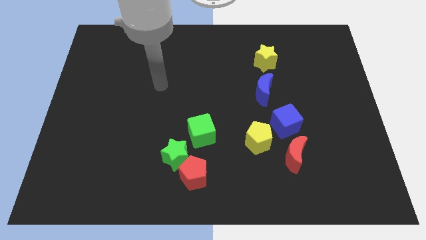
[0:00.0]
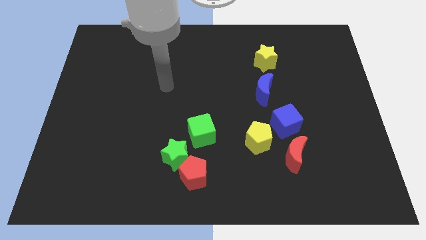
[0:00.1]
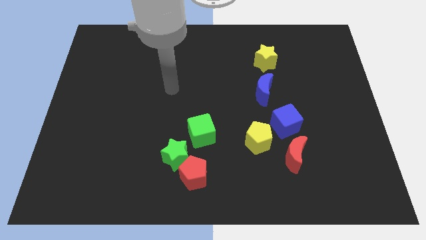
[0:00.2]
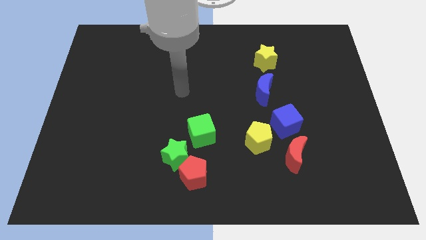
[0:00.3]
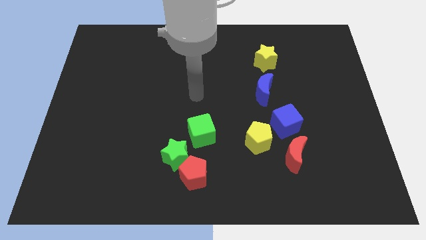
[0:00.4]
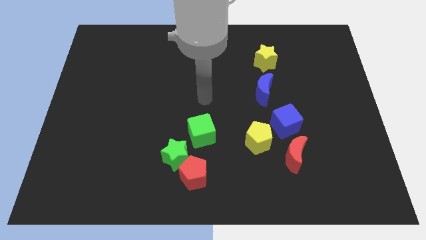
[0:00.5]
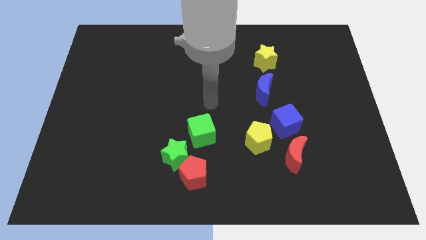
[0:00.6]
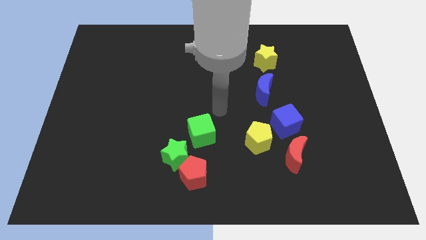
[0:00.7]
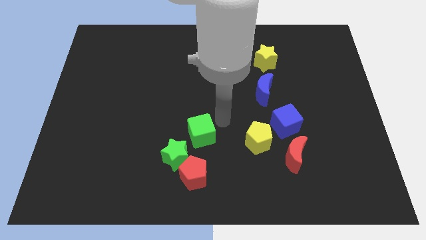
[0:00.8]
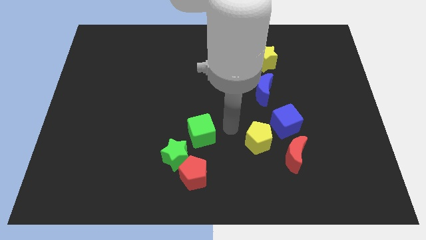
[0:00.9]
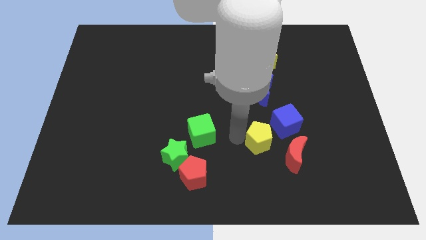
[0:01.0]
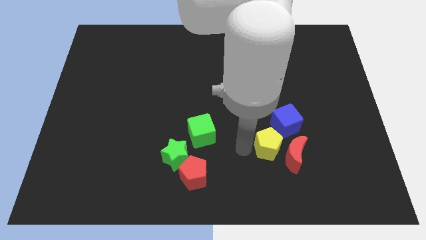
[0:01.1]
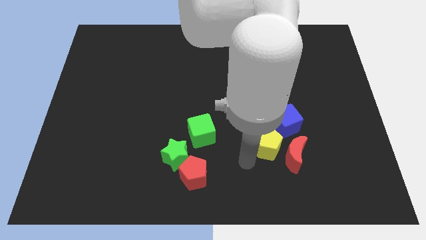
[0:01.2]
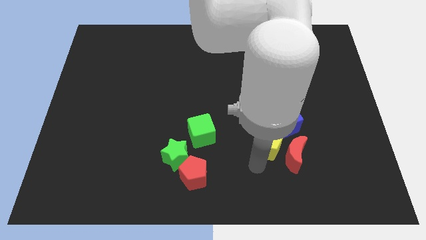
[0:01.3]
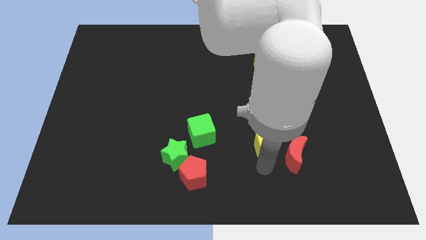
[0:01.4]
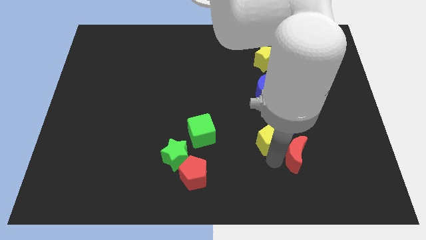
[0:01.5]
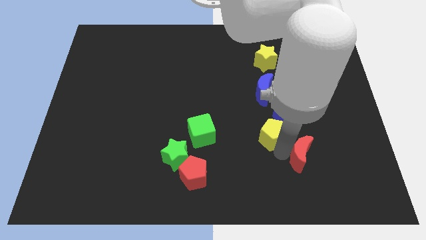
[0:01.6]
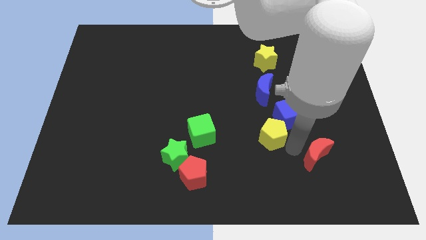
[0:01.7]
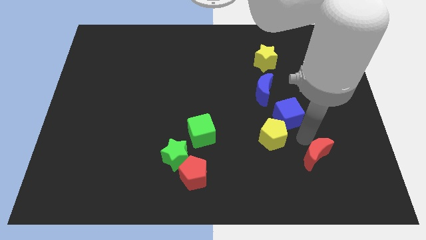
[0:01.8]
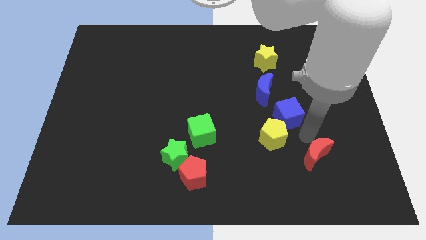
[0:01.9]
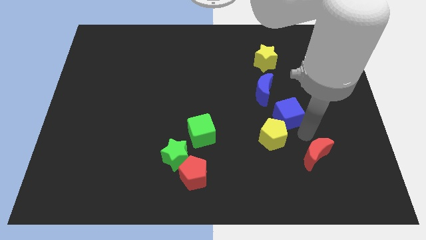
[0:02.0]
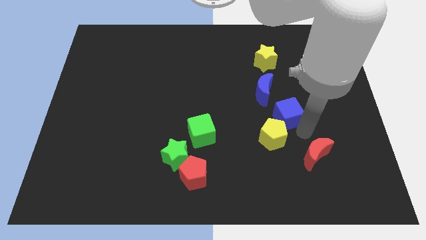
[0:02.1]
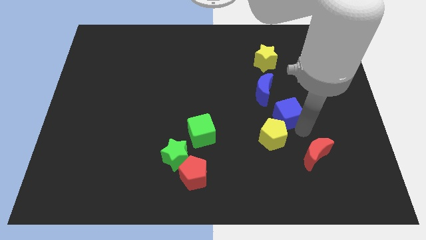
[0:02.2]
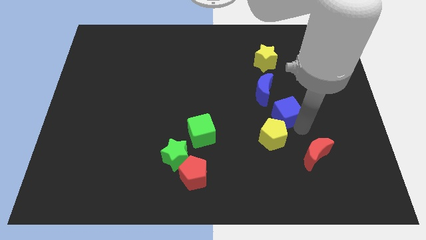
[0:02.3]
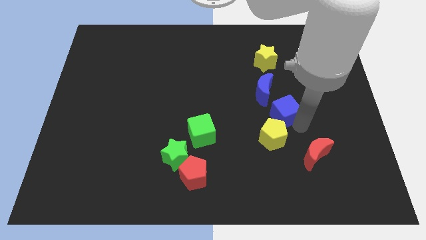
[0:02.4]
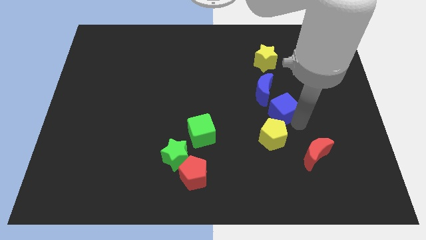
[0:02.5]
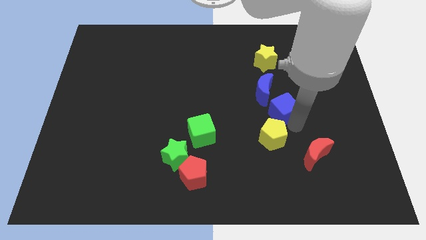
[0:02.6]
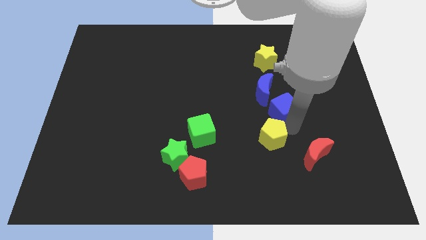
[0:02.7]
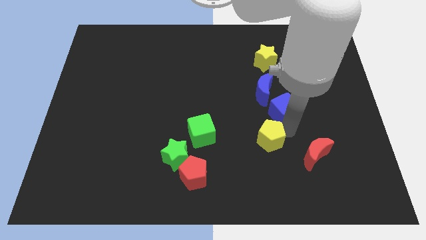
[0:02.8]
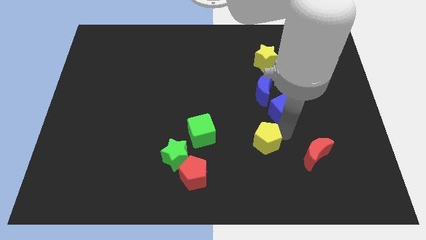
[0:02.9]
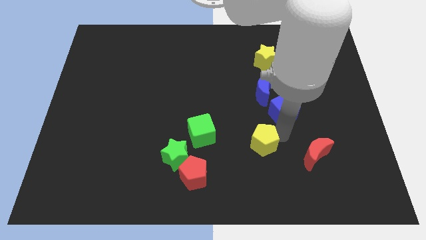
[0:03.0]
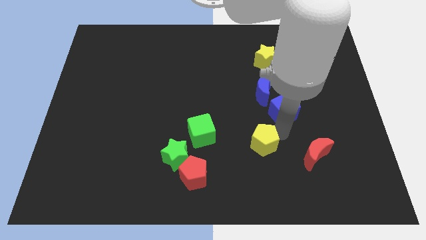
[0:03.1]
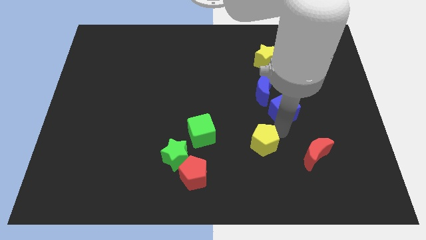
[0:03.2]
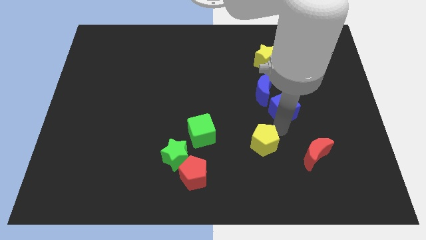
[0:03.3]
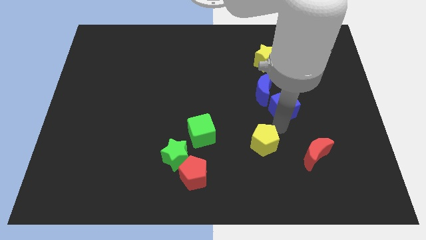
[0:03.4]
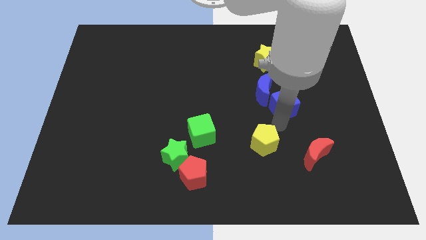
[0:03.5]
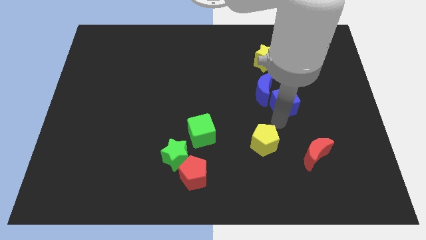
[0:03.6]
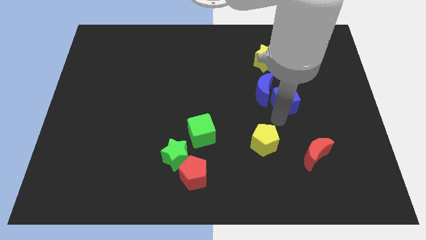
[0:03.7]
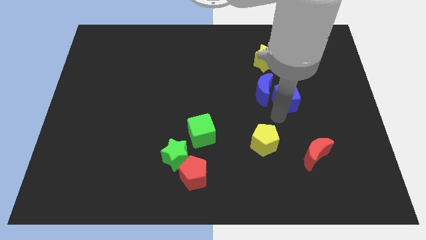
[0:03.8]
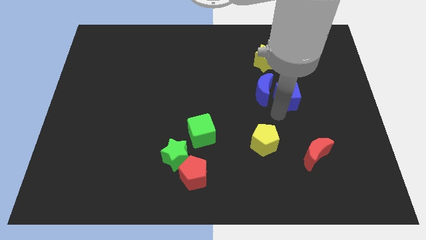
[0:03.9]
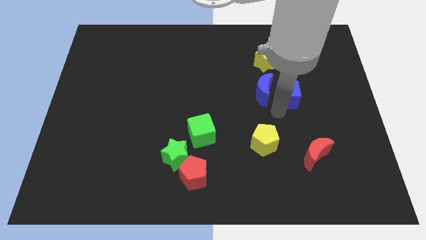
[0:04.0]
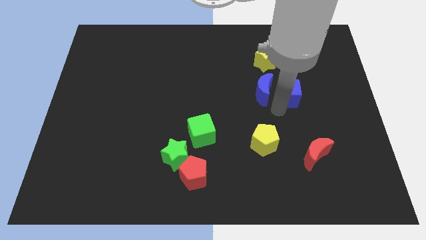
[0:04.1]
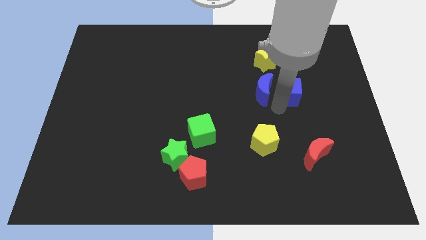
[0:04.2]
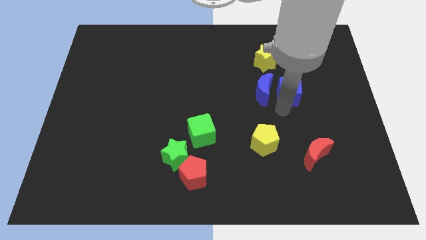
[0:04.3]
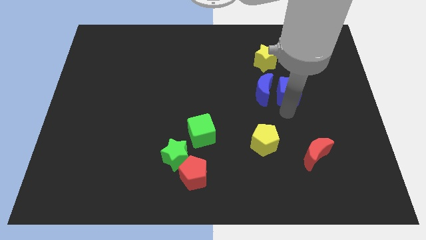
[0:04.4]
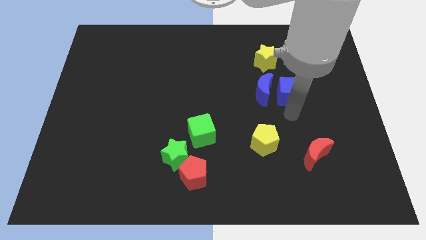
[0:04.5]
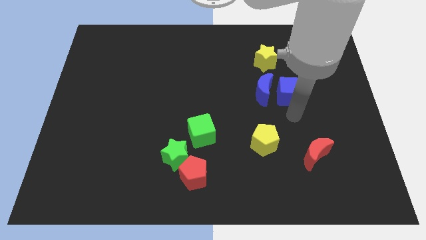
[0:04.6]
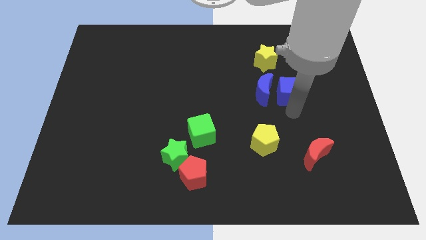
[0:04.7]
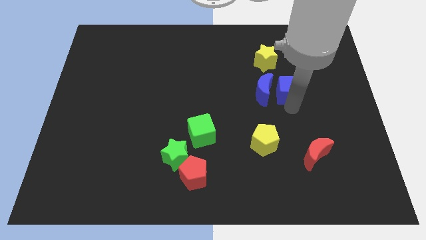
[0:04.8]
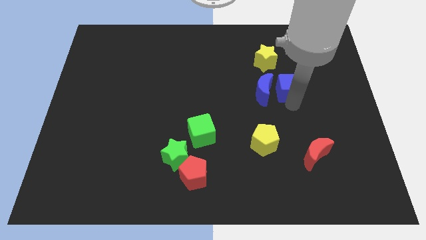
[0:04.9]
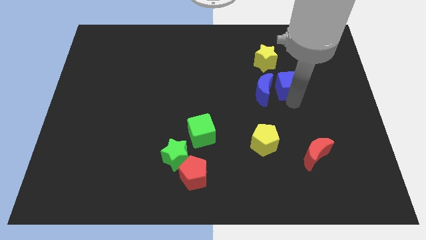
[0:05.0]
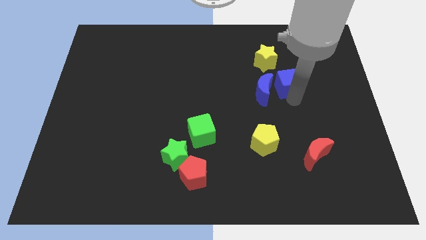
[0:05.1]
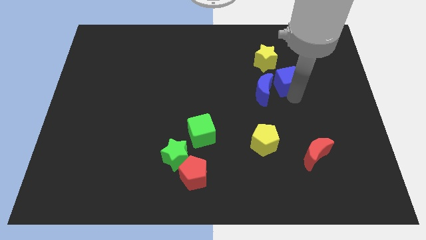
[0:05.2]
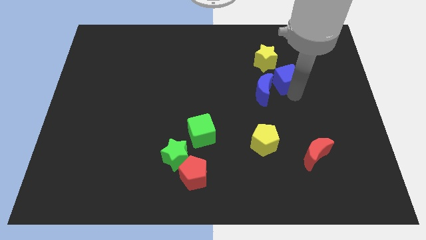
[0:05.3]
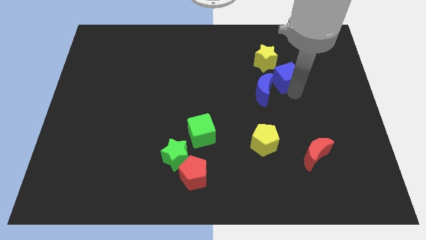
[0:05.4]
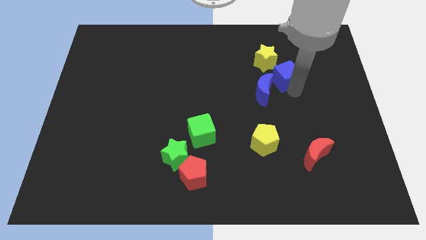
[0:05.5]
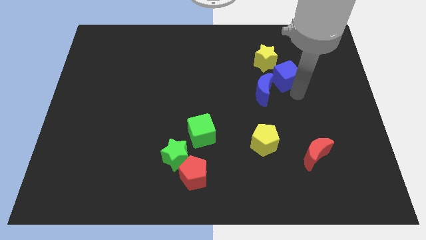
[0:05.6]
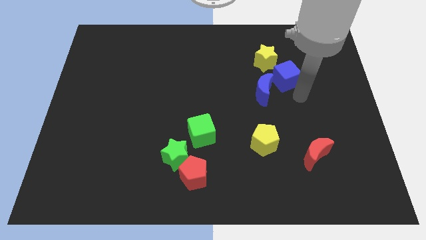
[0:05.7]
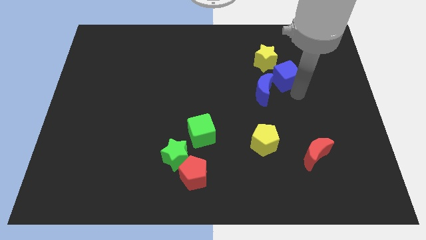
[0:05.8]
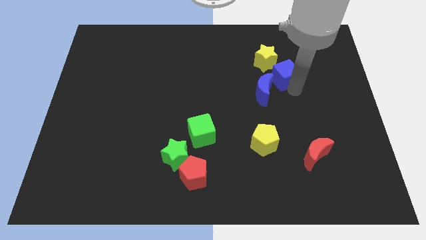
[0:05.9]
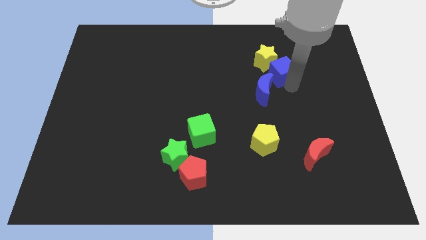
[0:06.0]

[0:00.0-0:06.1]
push the blue cube to the yellow star

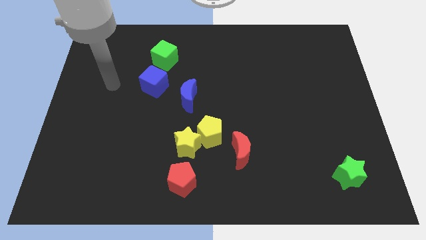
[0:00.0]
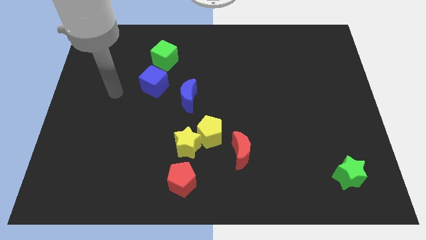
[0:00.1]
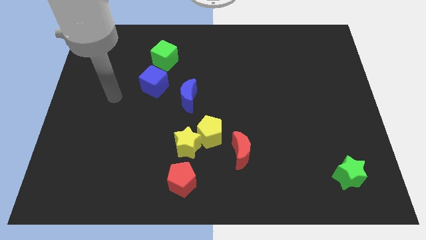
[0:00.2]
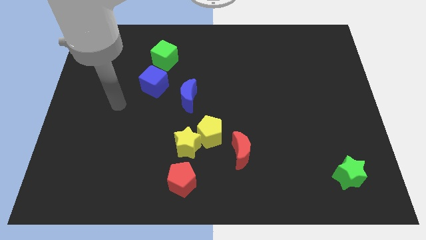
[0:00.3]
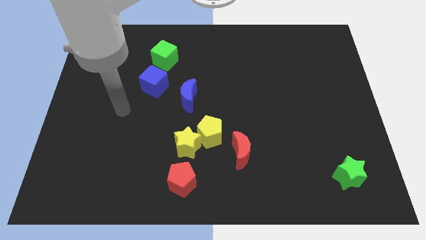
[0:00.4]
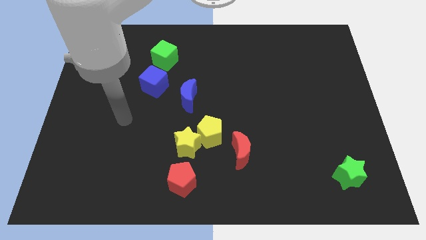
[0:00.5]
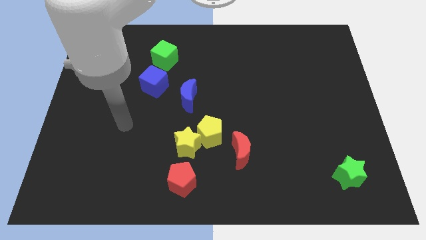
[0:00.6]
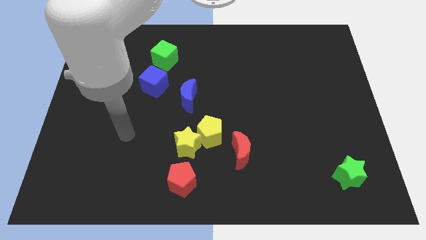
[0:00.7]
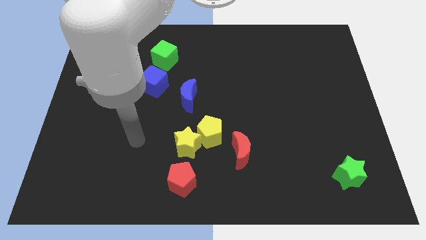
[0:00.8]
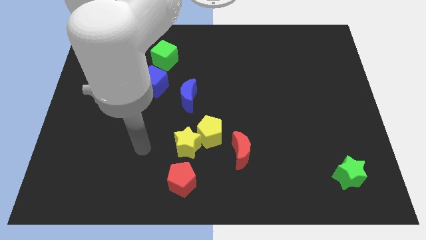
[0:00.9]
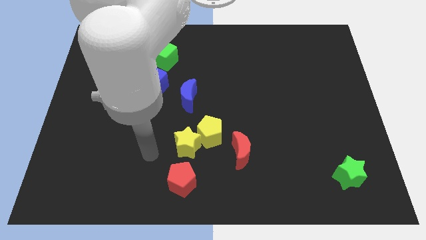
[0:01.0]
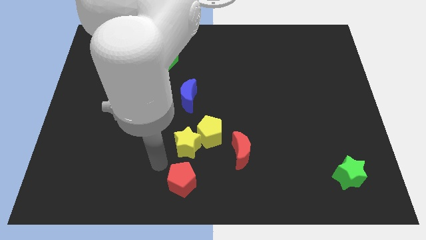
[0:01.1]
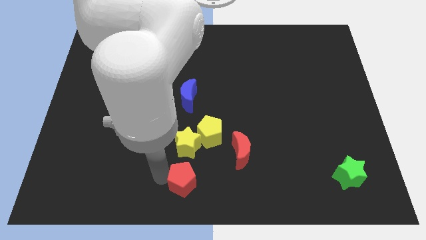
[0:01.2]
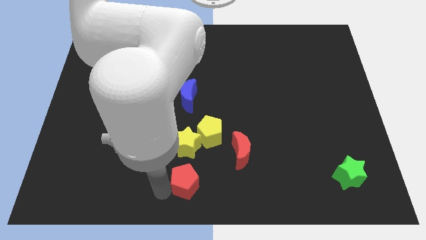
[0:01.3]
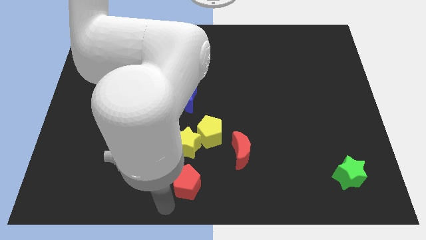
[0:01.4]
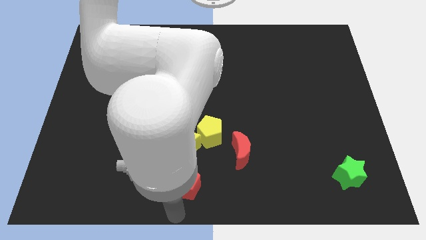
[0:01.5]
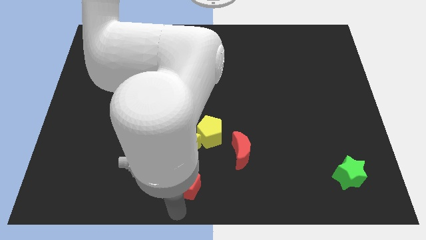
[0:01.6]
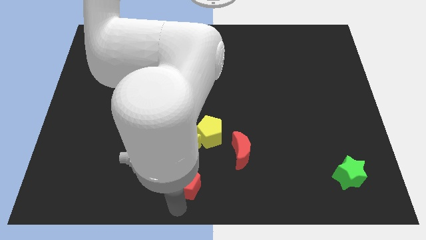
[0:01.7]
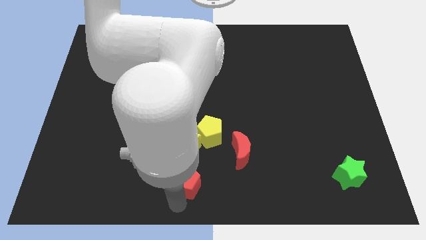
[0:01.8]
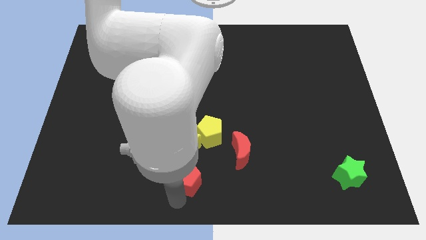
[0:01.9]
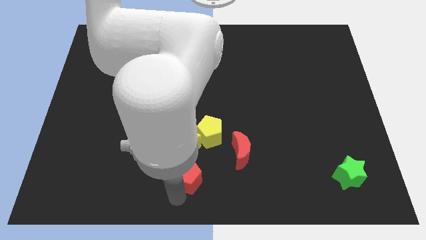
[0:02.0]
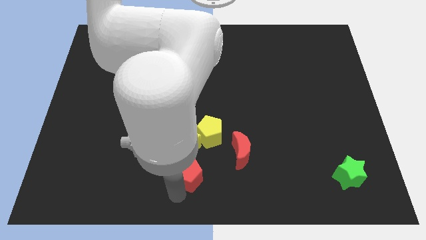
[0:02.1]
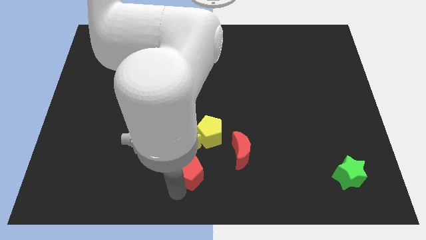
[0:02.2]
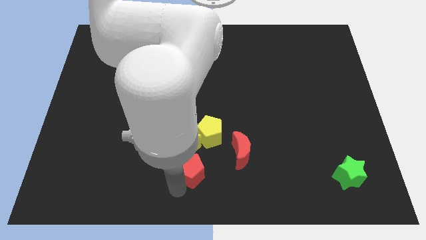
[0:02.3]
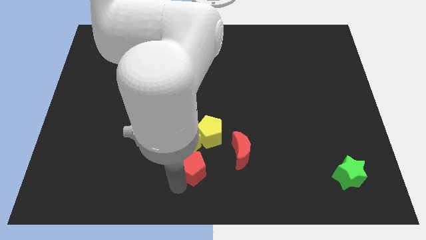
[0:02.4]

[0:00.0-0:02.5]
put the red pentagon to the yellow star
